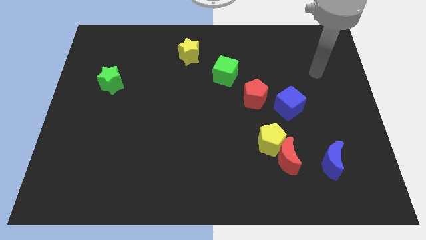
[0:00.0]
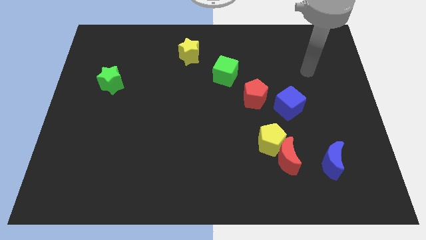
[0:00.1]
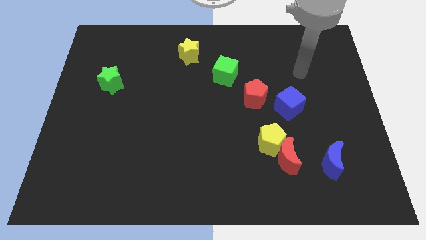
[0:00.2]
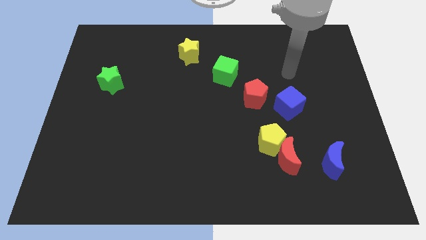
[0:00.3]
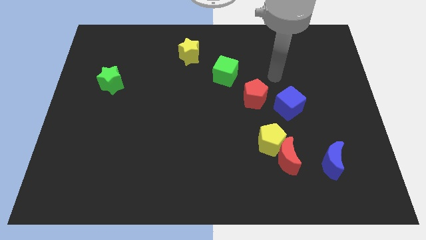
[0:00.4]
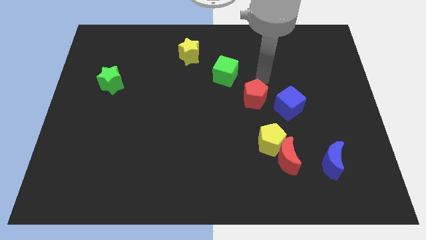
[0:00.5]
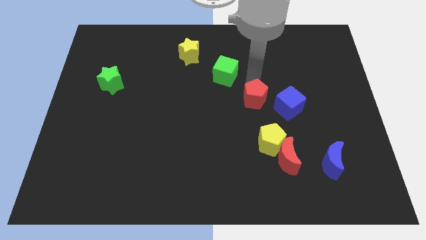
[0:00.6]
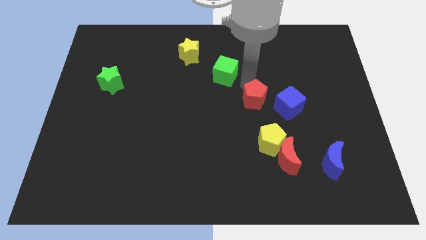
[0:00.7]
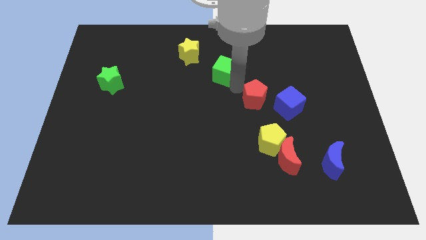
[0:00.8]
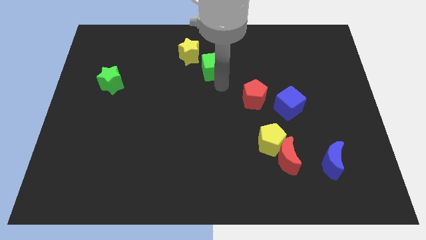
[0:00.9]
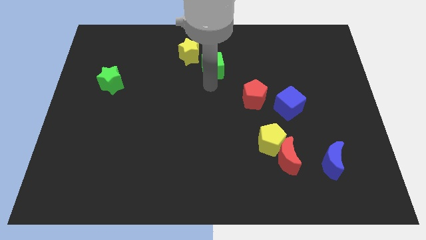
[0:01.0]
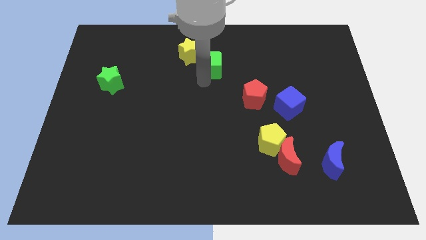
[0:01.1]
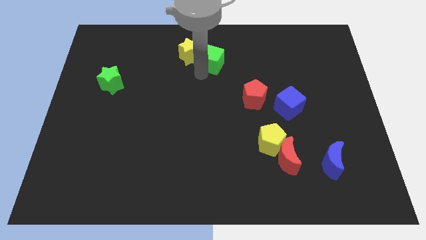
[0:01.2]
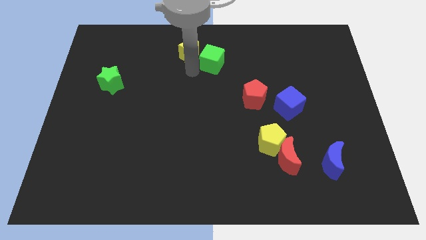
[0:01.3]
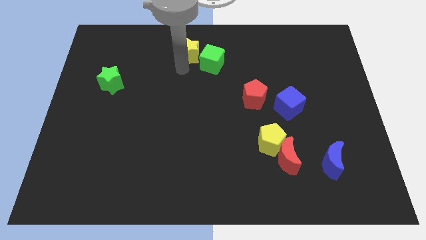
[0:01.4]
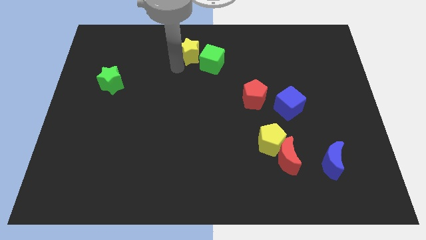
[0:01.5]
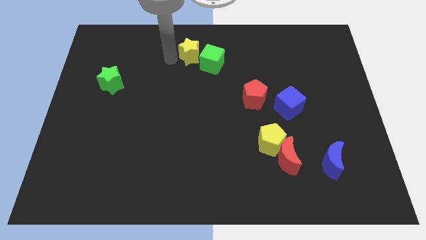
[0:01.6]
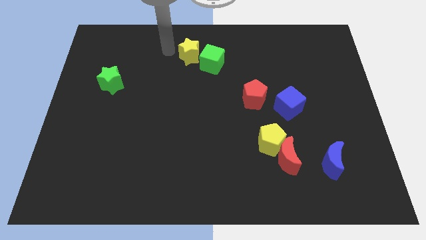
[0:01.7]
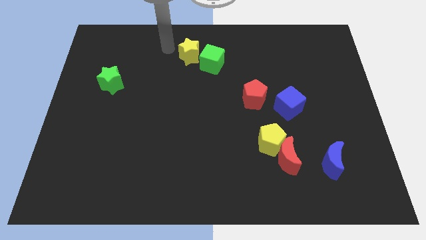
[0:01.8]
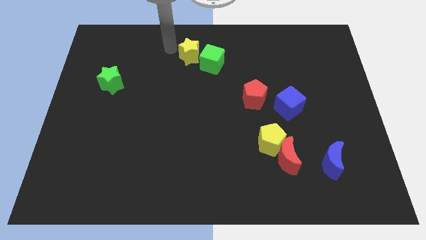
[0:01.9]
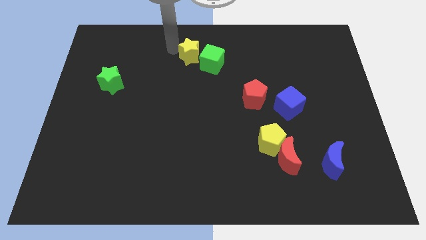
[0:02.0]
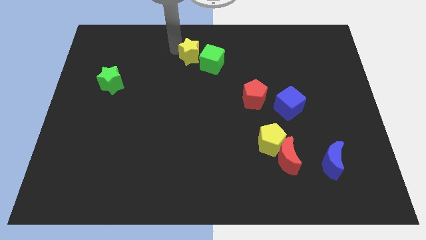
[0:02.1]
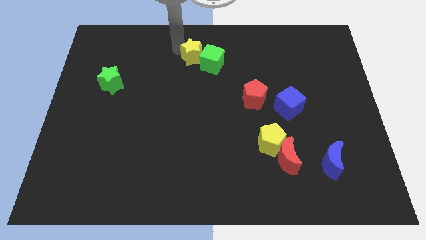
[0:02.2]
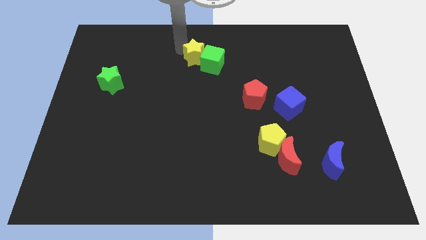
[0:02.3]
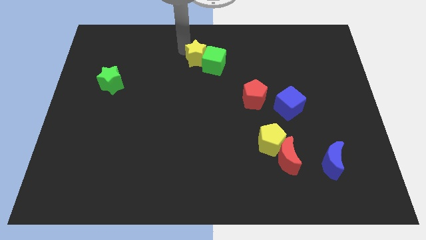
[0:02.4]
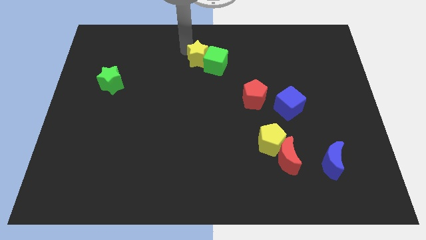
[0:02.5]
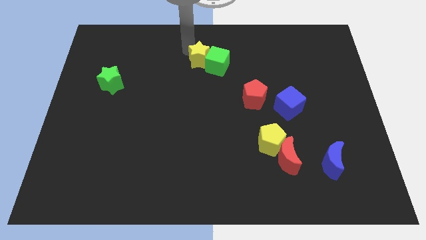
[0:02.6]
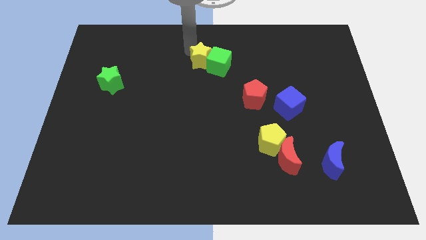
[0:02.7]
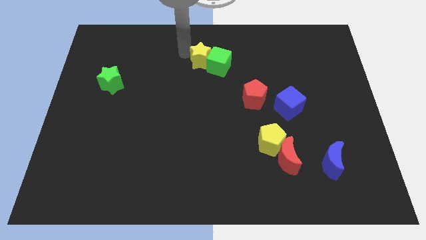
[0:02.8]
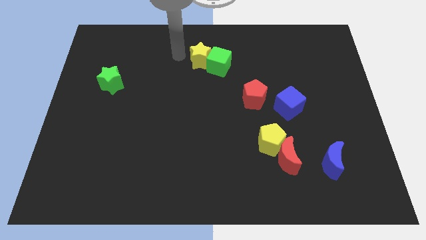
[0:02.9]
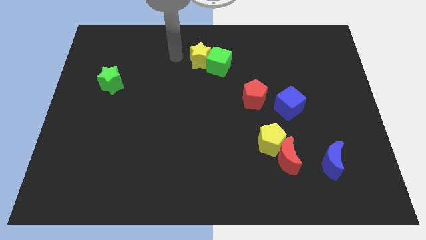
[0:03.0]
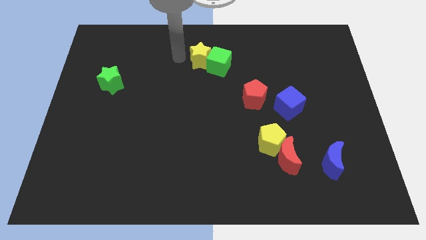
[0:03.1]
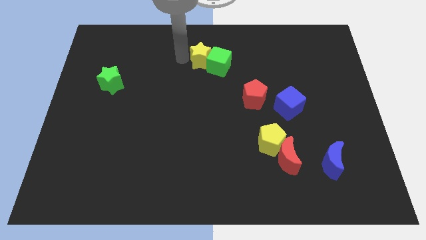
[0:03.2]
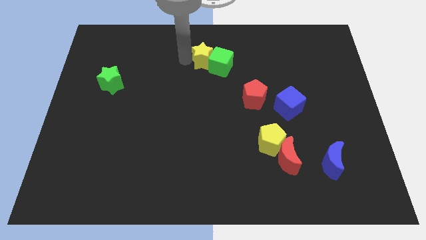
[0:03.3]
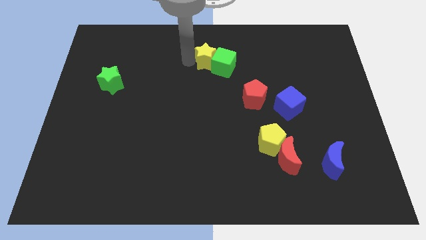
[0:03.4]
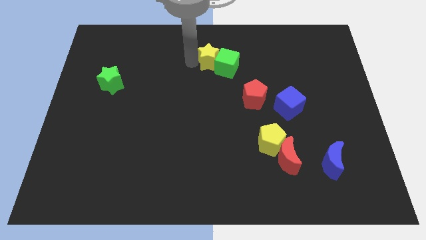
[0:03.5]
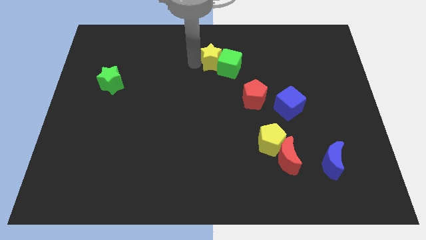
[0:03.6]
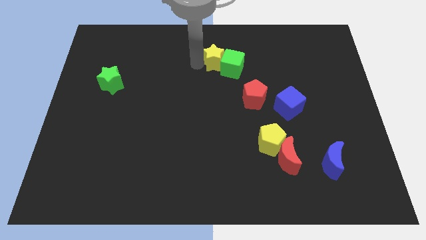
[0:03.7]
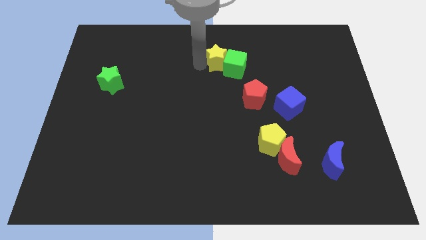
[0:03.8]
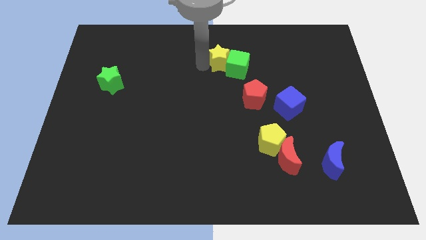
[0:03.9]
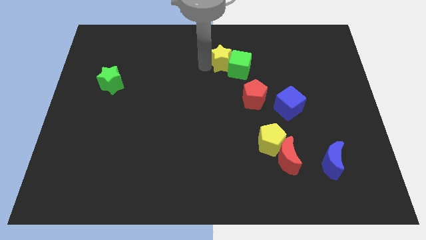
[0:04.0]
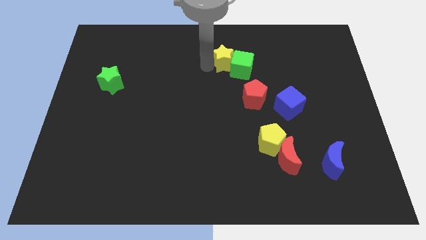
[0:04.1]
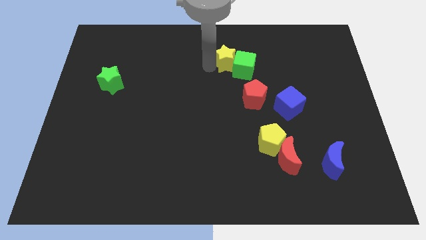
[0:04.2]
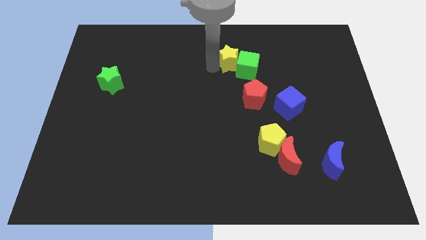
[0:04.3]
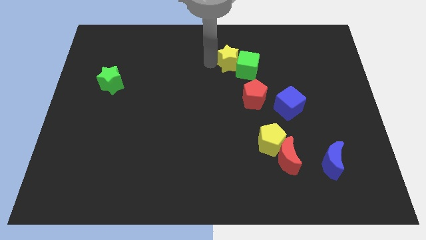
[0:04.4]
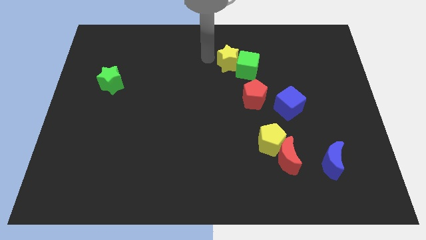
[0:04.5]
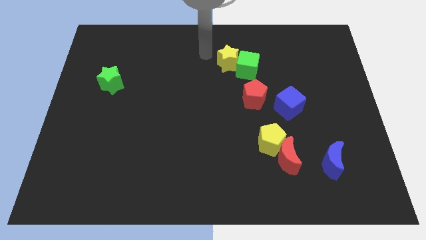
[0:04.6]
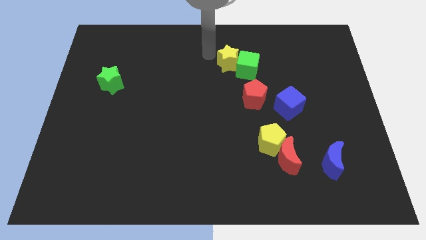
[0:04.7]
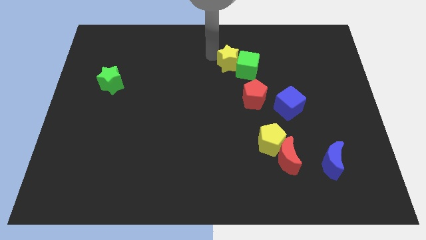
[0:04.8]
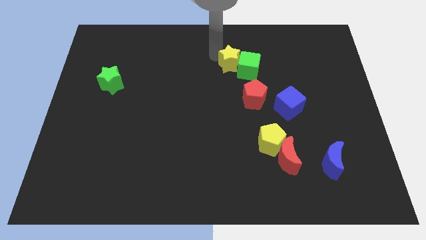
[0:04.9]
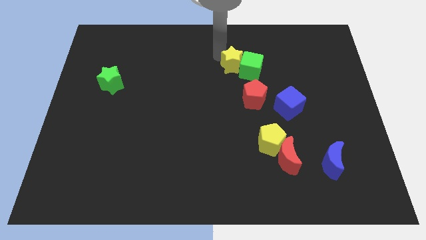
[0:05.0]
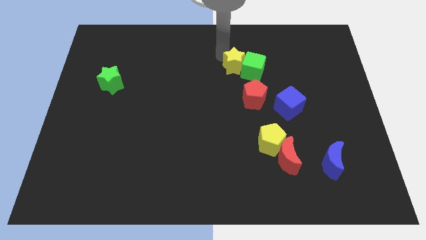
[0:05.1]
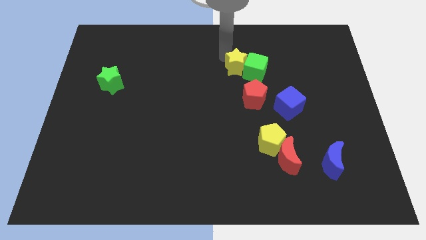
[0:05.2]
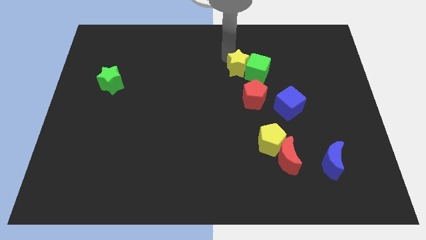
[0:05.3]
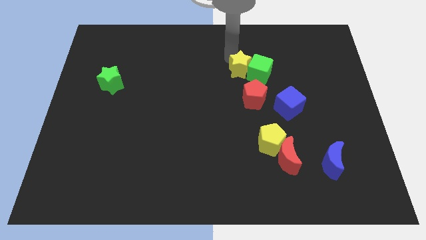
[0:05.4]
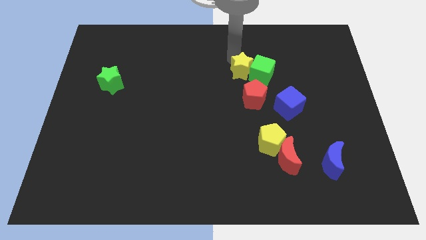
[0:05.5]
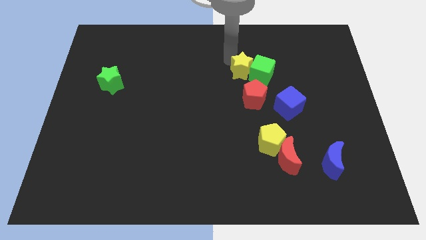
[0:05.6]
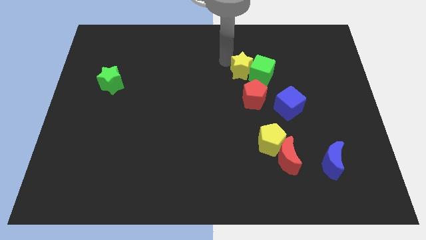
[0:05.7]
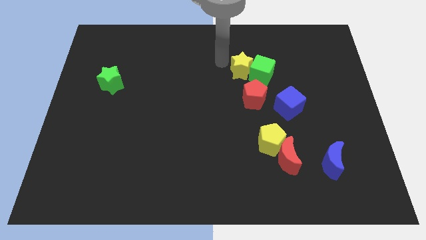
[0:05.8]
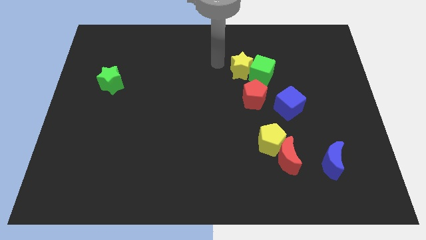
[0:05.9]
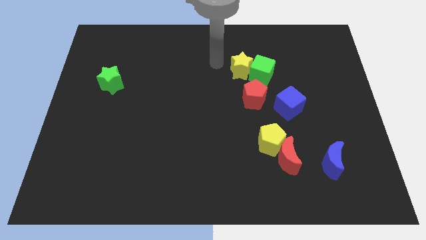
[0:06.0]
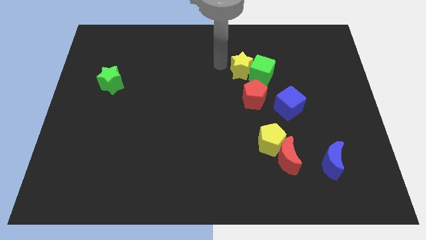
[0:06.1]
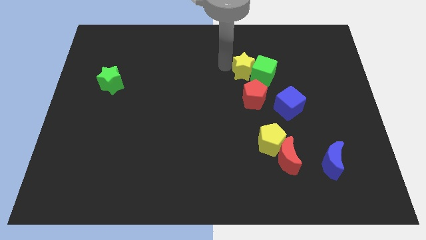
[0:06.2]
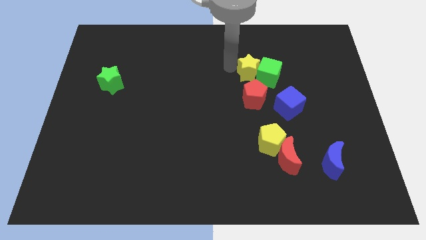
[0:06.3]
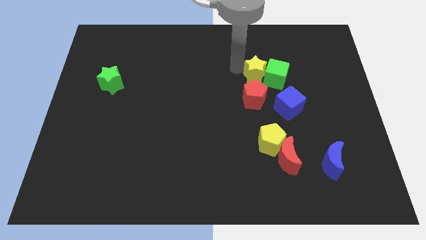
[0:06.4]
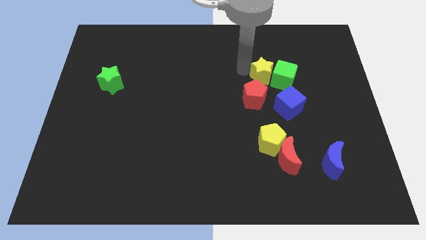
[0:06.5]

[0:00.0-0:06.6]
push the yellow star to the top right of the red pentagon
